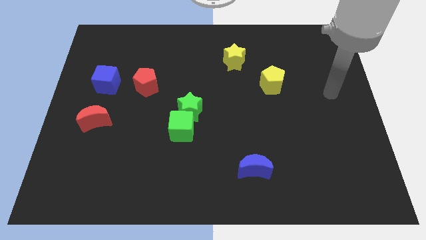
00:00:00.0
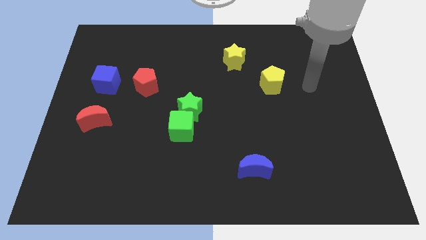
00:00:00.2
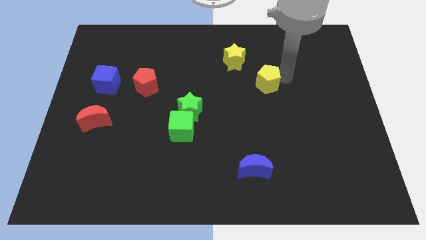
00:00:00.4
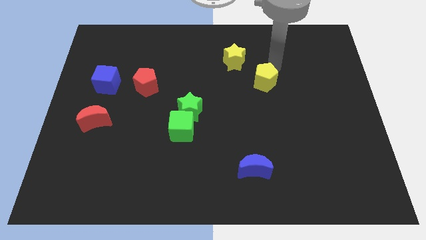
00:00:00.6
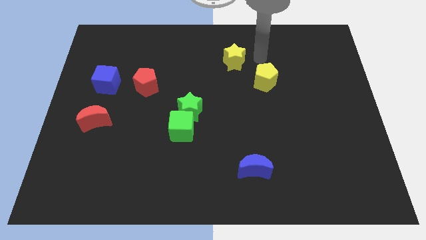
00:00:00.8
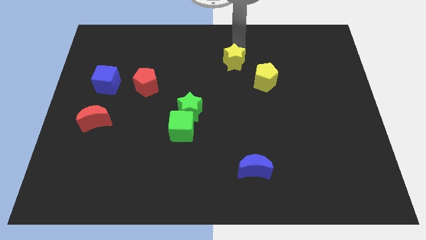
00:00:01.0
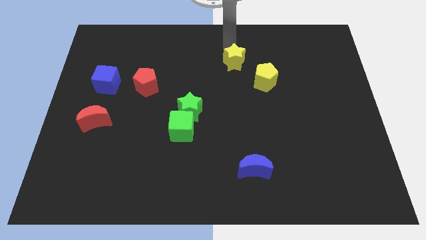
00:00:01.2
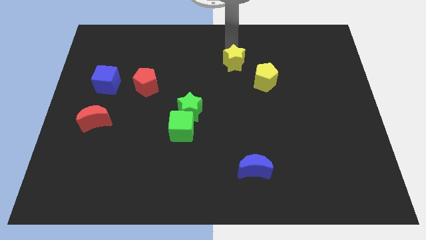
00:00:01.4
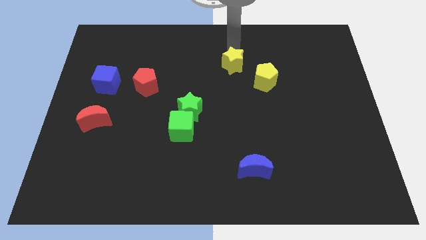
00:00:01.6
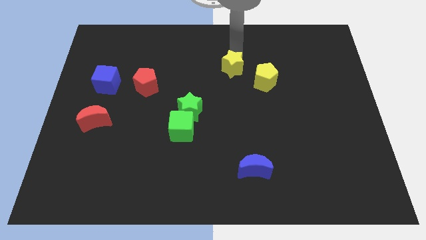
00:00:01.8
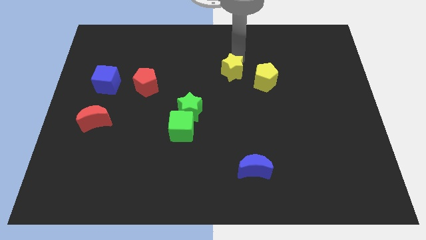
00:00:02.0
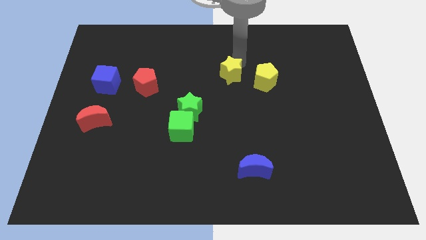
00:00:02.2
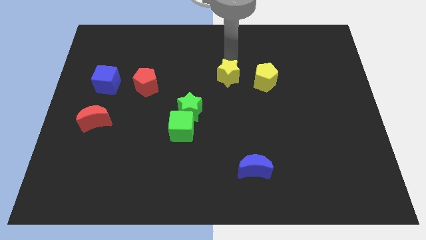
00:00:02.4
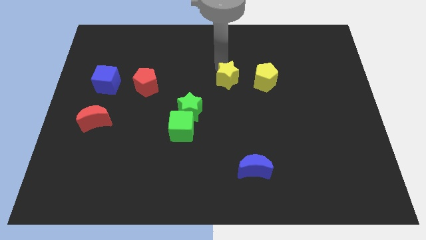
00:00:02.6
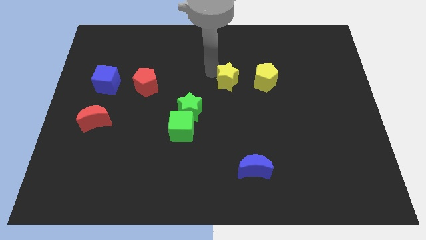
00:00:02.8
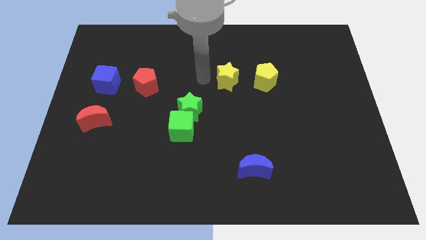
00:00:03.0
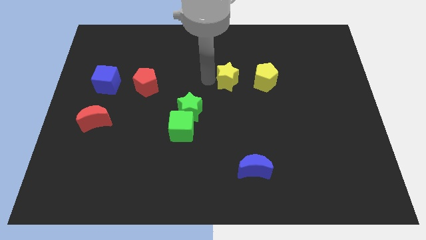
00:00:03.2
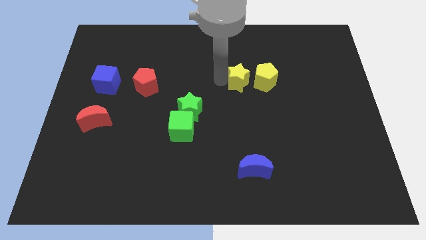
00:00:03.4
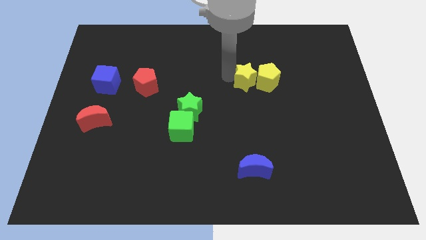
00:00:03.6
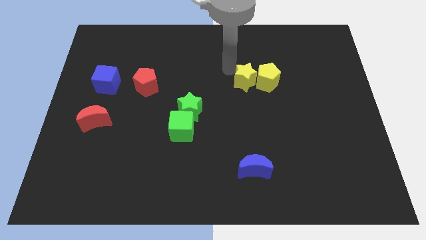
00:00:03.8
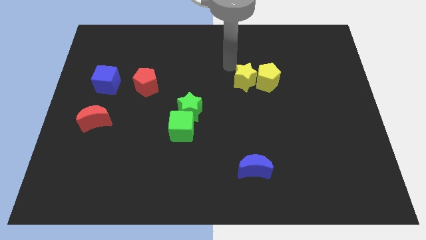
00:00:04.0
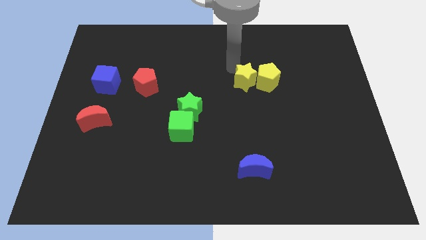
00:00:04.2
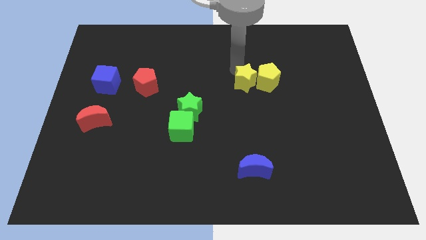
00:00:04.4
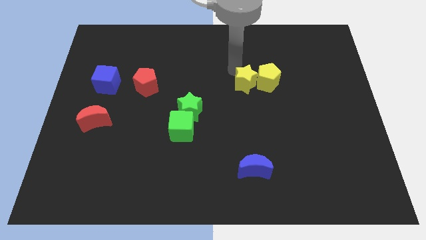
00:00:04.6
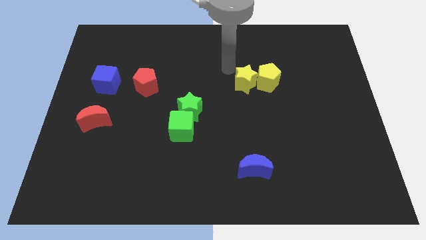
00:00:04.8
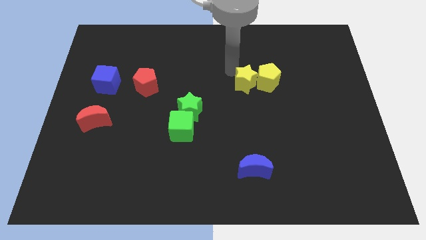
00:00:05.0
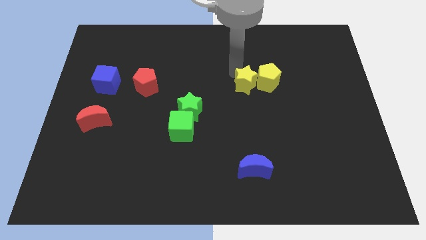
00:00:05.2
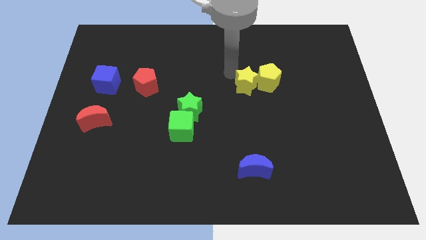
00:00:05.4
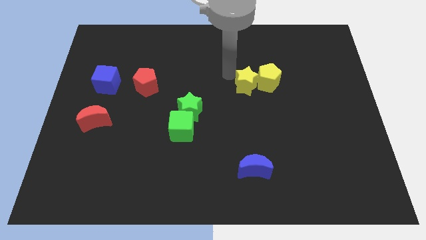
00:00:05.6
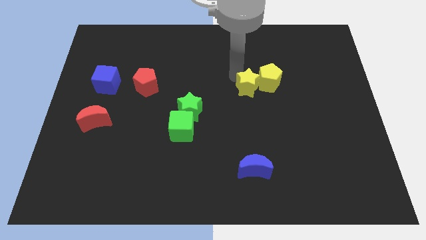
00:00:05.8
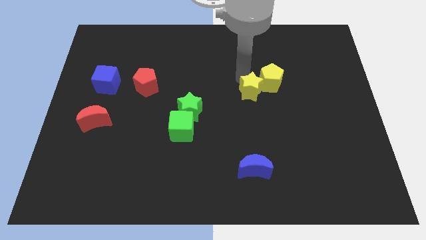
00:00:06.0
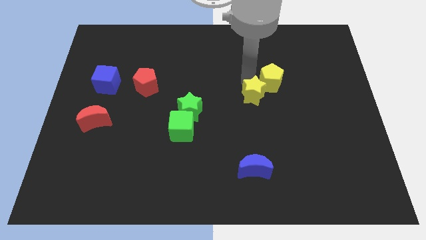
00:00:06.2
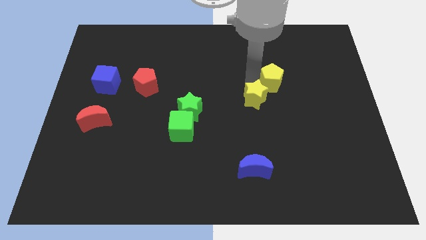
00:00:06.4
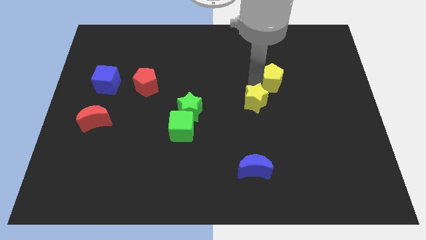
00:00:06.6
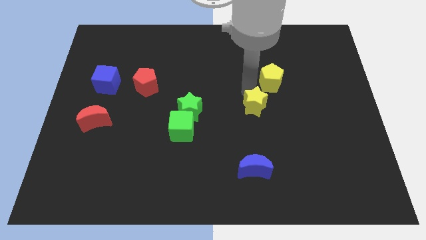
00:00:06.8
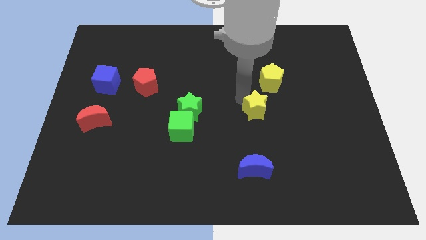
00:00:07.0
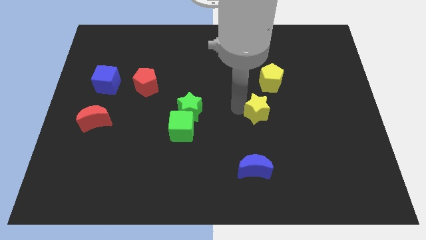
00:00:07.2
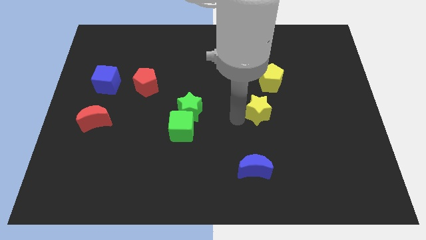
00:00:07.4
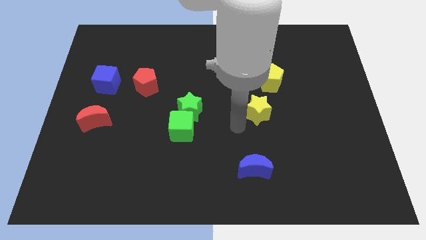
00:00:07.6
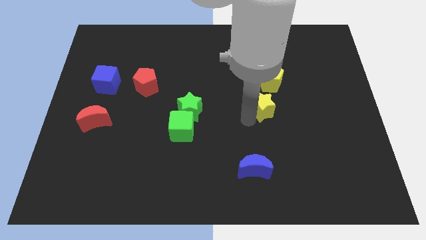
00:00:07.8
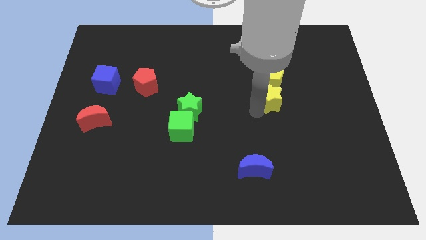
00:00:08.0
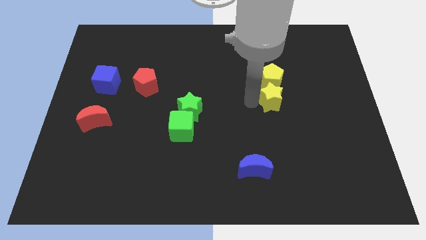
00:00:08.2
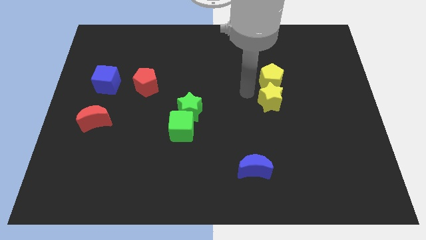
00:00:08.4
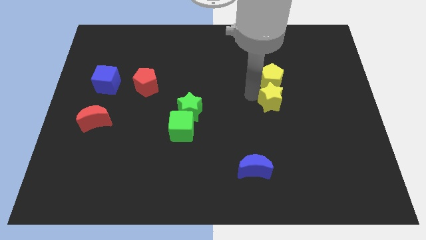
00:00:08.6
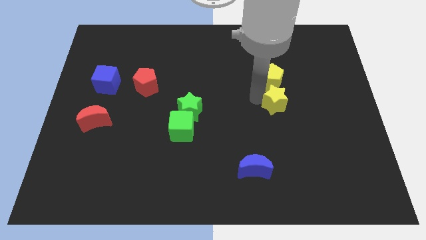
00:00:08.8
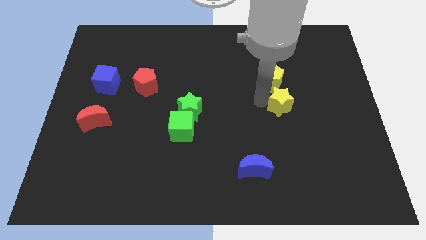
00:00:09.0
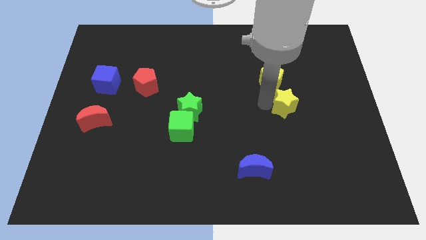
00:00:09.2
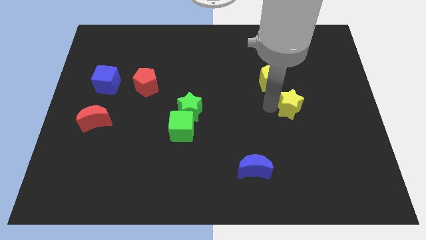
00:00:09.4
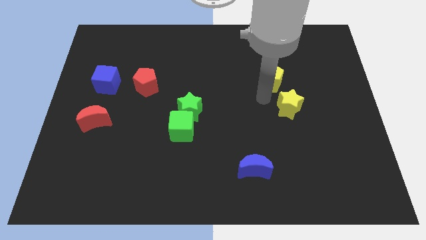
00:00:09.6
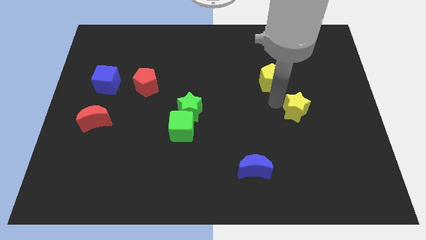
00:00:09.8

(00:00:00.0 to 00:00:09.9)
move the yellow star diagonally downwards and right

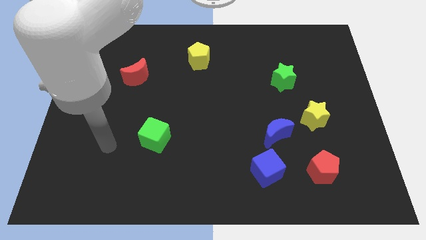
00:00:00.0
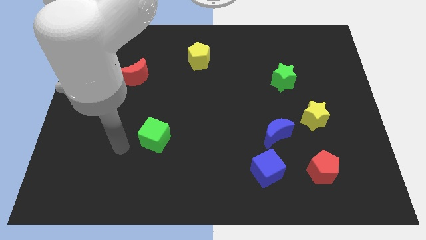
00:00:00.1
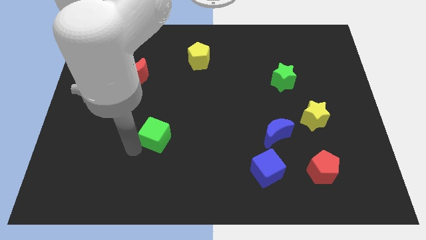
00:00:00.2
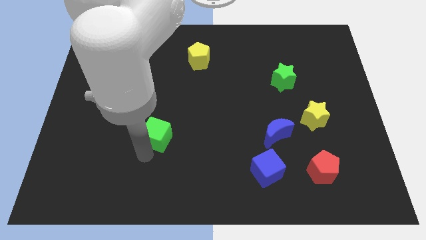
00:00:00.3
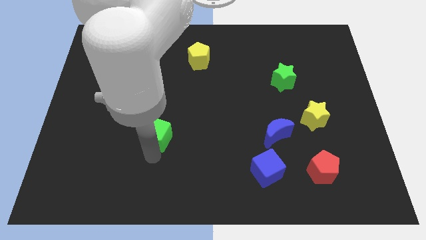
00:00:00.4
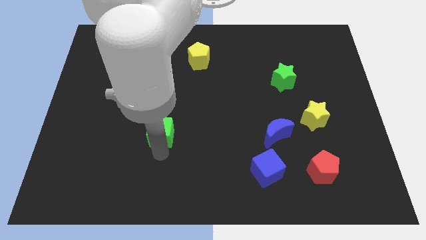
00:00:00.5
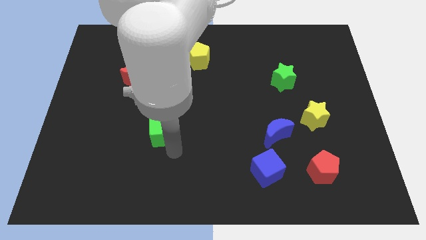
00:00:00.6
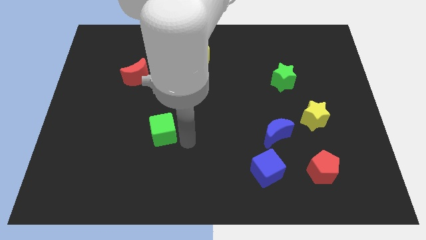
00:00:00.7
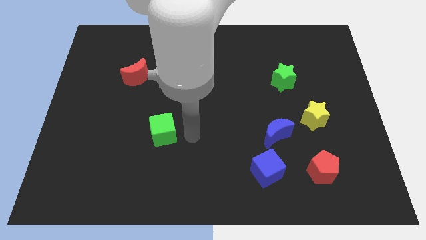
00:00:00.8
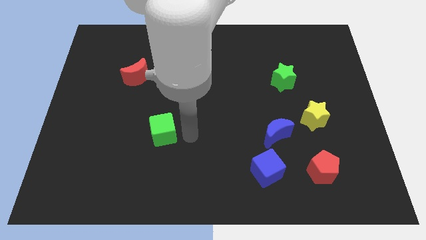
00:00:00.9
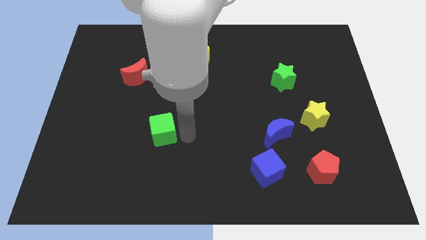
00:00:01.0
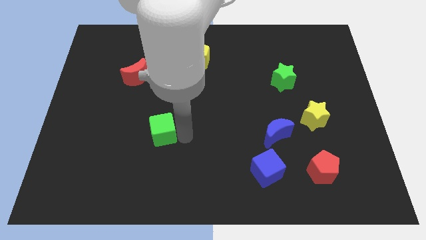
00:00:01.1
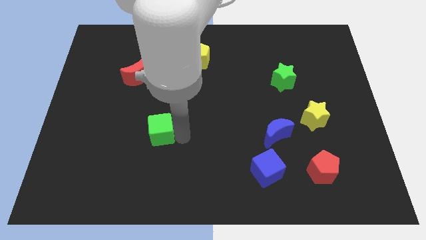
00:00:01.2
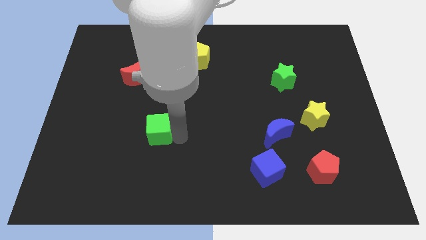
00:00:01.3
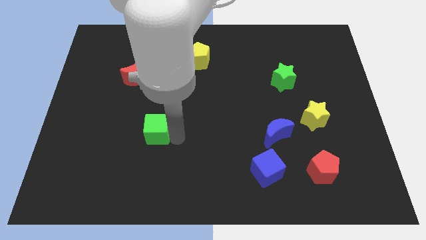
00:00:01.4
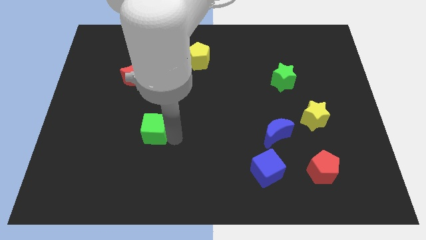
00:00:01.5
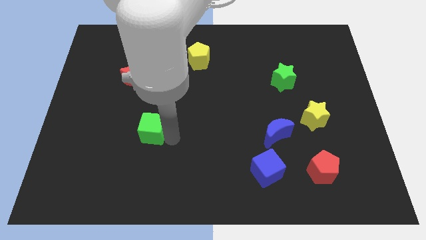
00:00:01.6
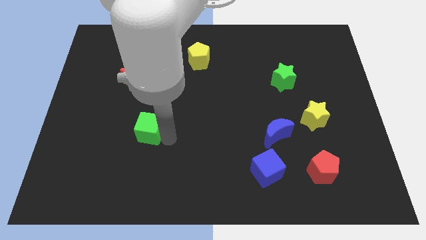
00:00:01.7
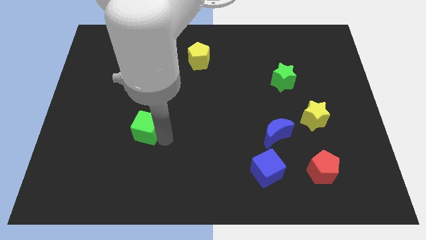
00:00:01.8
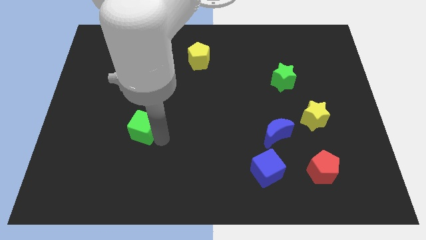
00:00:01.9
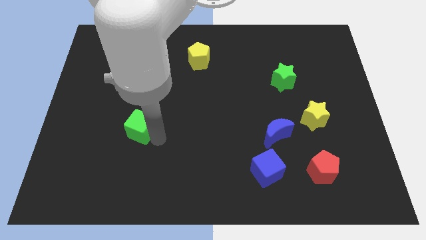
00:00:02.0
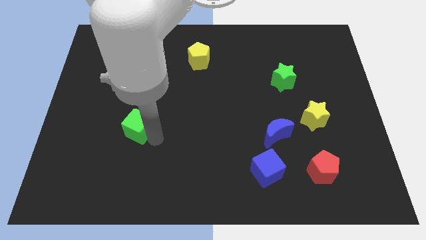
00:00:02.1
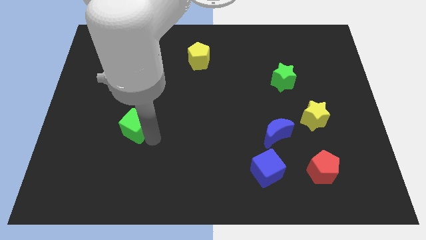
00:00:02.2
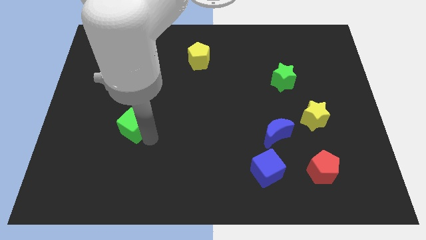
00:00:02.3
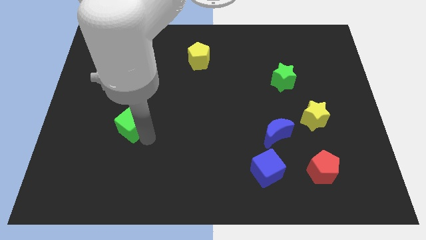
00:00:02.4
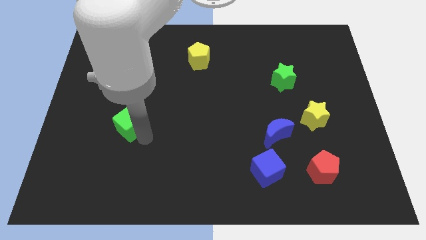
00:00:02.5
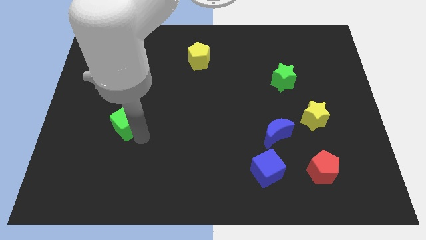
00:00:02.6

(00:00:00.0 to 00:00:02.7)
push the green cube somewhat diagonally upwards and to the left

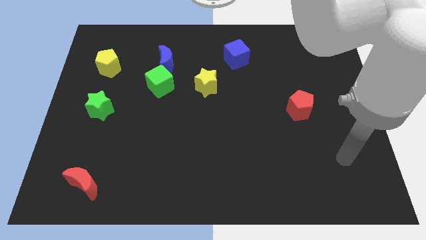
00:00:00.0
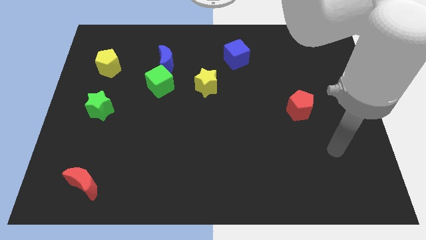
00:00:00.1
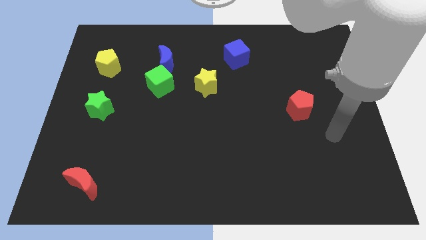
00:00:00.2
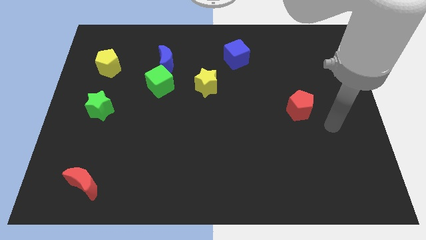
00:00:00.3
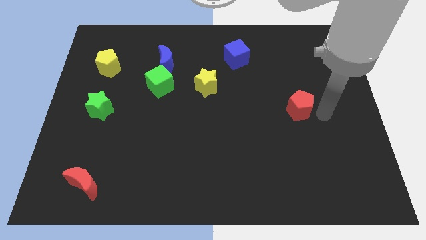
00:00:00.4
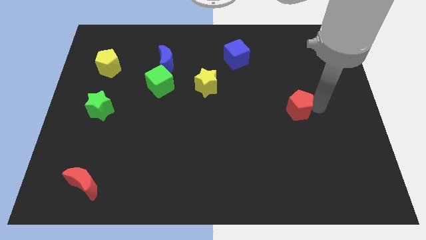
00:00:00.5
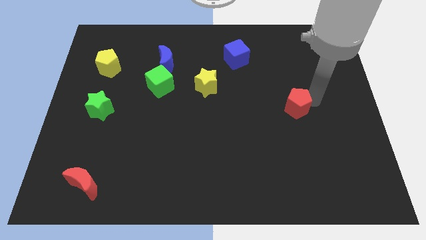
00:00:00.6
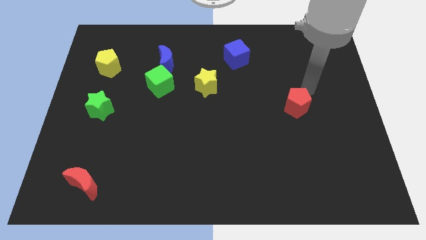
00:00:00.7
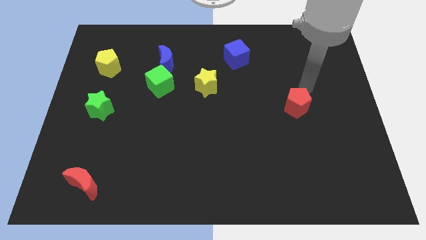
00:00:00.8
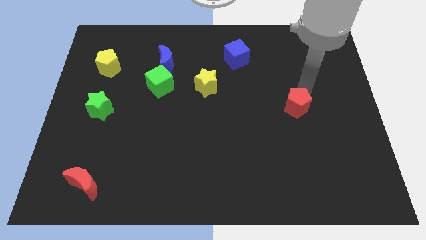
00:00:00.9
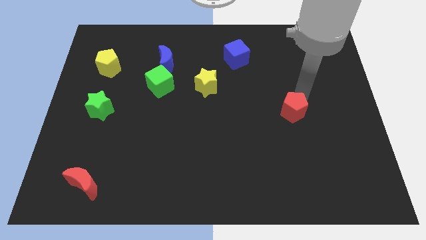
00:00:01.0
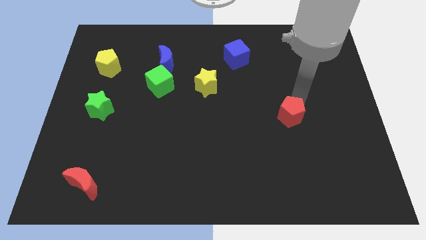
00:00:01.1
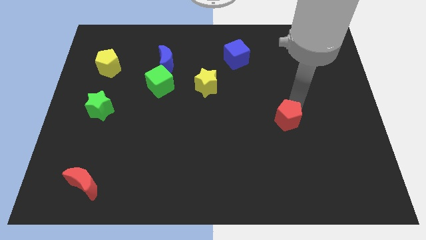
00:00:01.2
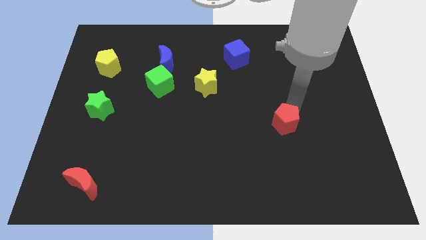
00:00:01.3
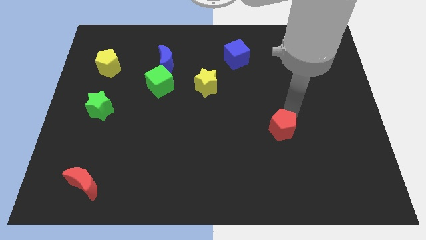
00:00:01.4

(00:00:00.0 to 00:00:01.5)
slide the red pentagon a little bit down and to the left
